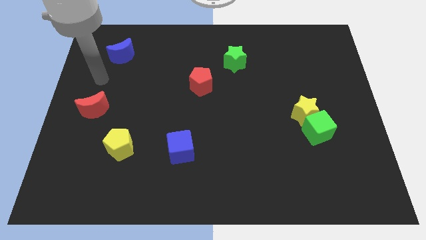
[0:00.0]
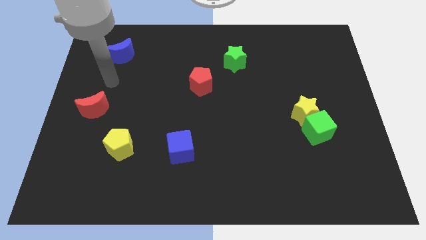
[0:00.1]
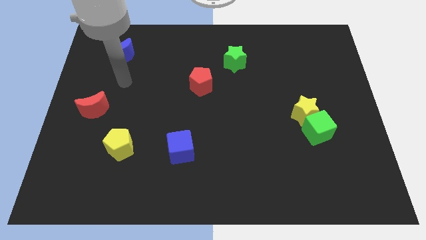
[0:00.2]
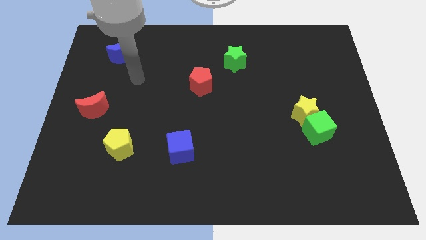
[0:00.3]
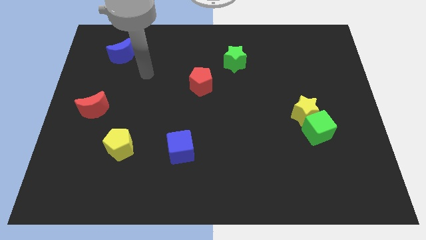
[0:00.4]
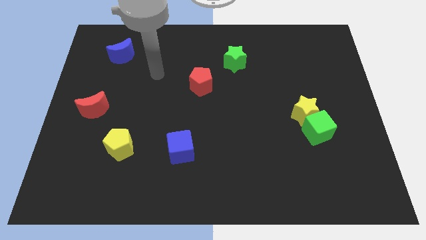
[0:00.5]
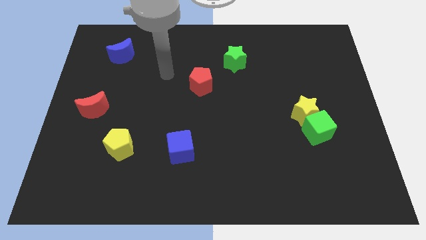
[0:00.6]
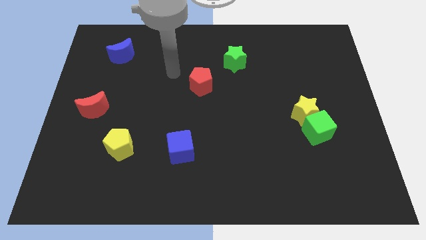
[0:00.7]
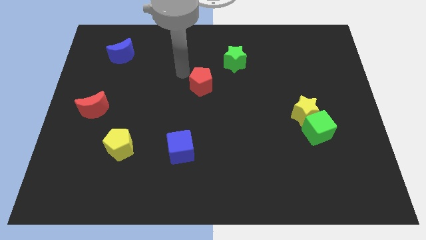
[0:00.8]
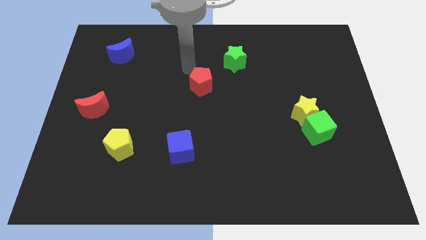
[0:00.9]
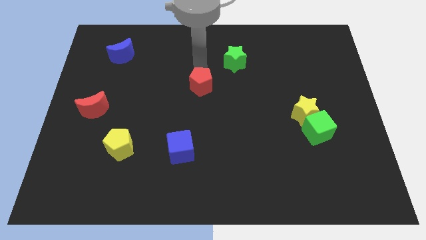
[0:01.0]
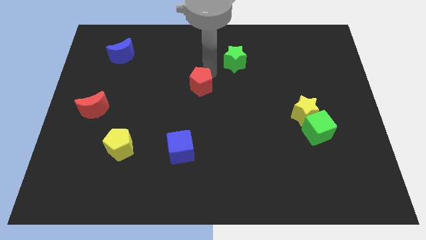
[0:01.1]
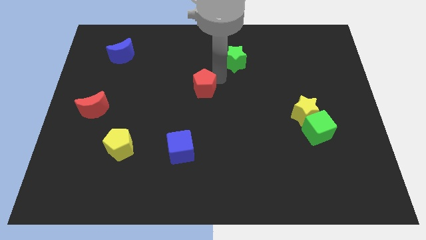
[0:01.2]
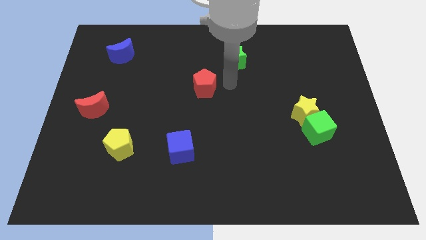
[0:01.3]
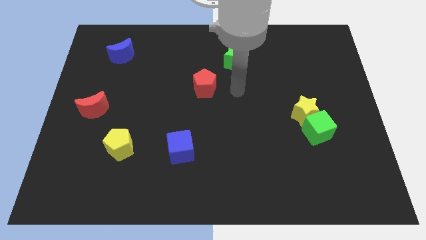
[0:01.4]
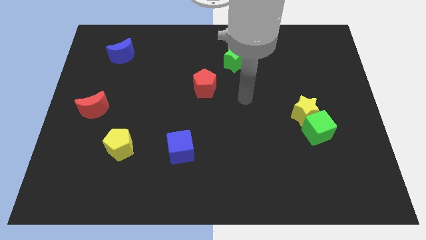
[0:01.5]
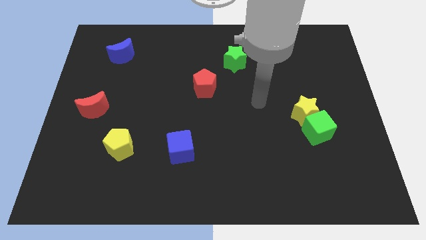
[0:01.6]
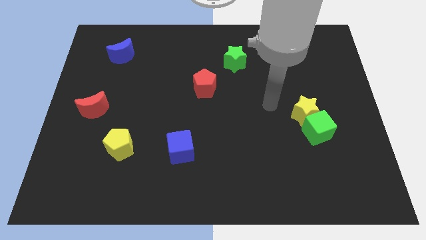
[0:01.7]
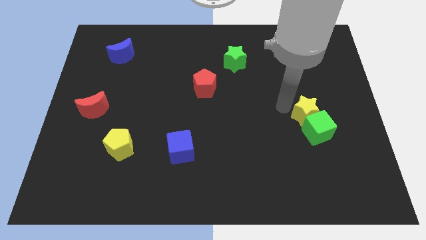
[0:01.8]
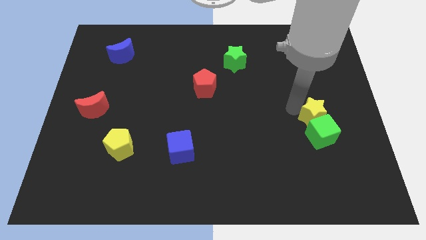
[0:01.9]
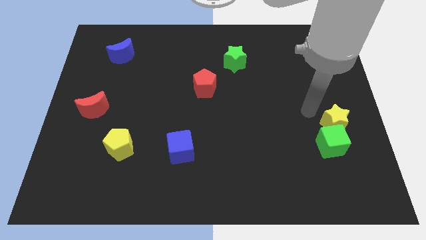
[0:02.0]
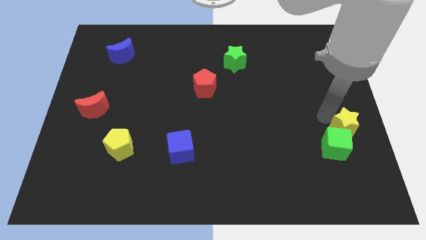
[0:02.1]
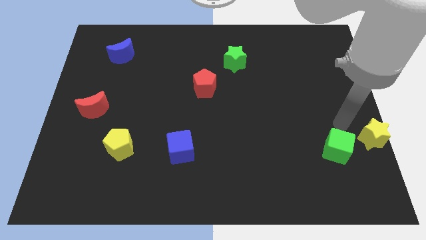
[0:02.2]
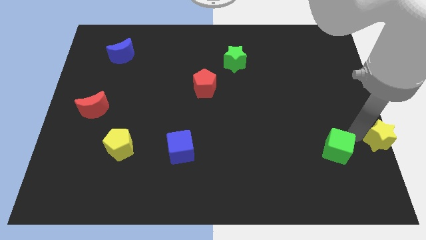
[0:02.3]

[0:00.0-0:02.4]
separate the green cube from the yellow star

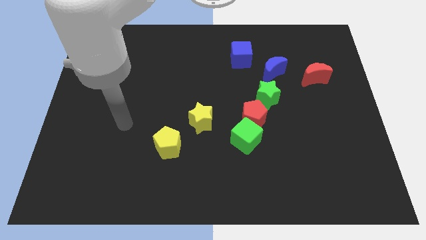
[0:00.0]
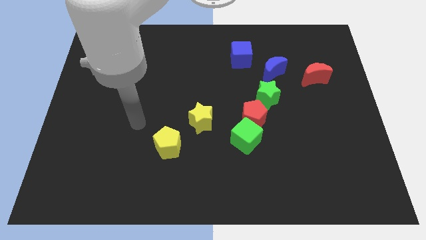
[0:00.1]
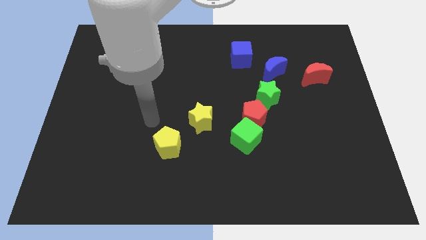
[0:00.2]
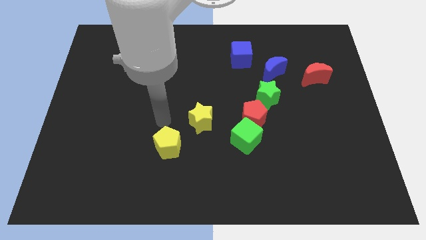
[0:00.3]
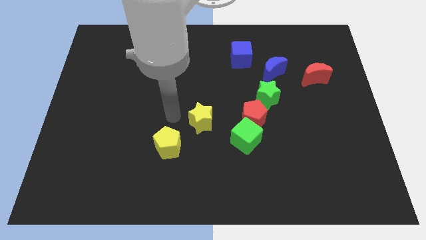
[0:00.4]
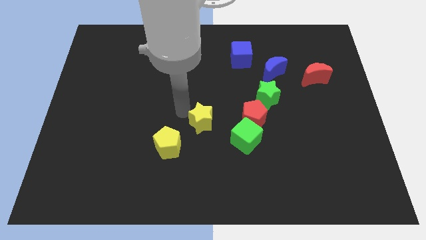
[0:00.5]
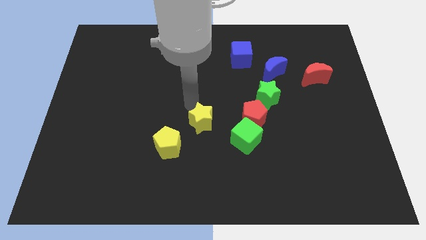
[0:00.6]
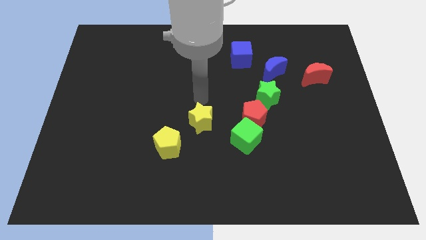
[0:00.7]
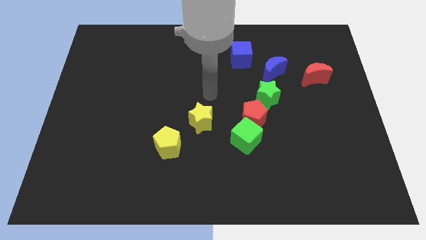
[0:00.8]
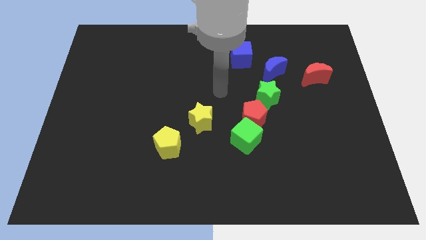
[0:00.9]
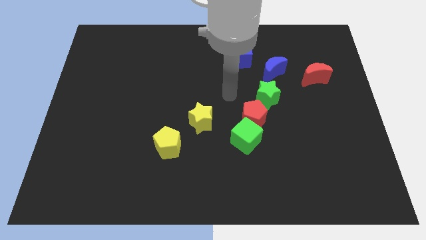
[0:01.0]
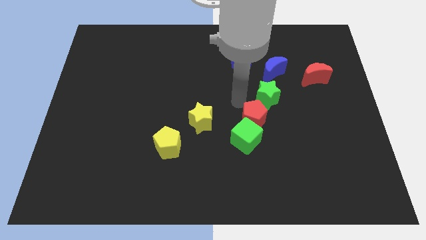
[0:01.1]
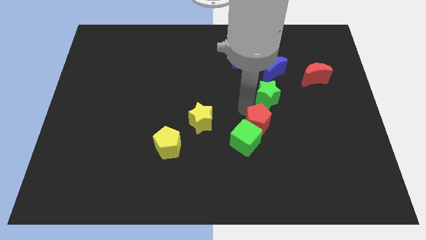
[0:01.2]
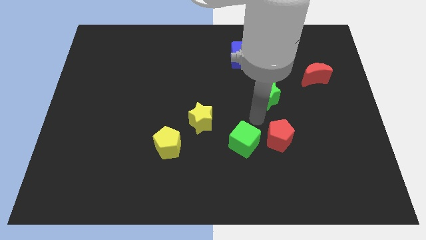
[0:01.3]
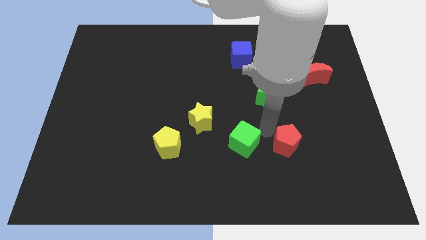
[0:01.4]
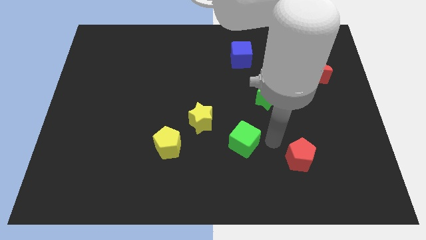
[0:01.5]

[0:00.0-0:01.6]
separate the green cube from the red pentagon

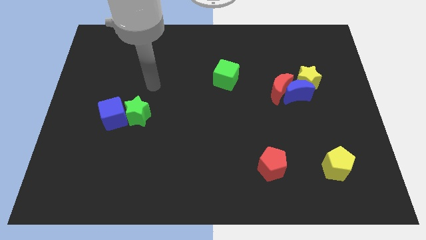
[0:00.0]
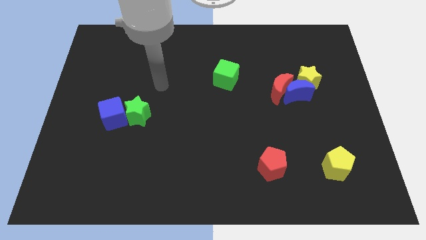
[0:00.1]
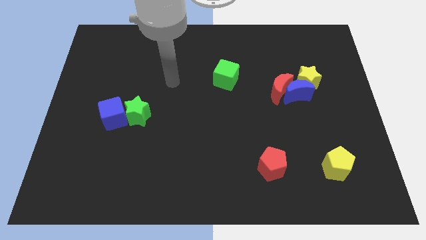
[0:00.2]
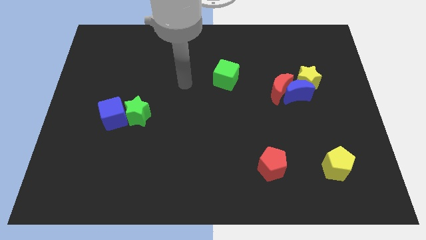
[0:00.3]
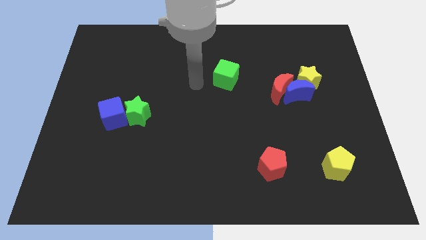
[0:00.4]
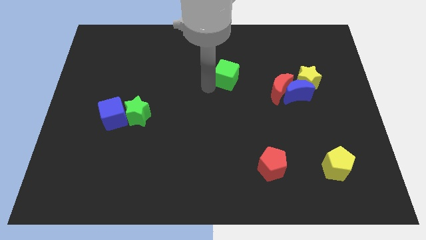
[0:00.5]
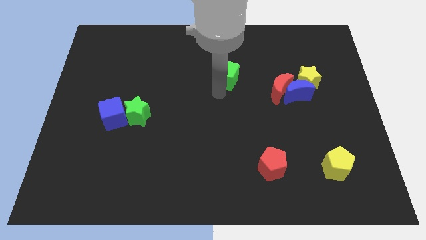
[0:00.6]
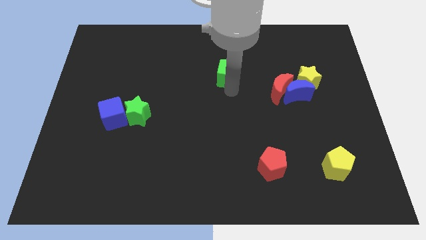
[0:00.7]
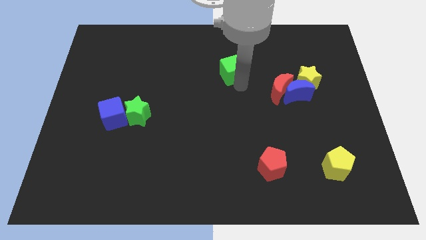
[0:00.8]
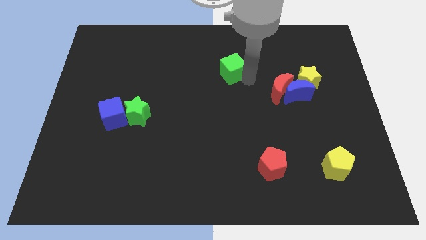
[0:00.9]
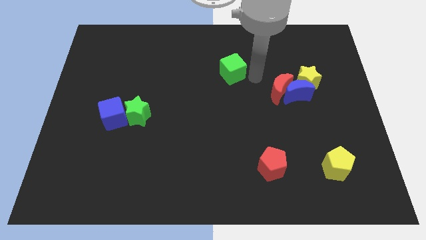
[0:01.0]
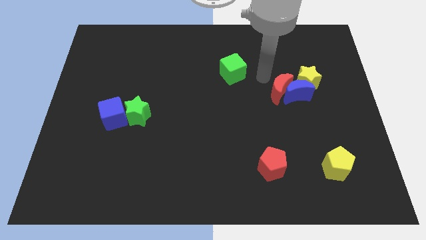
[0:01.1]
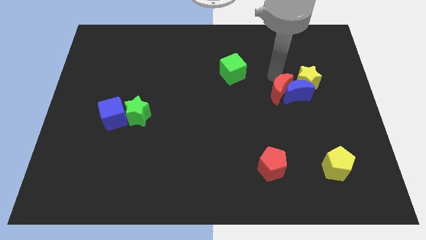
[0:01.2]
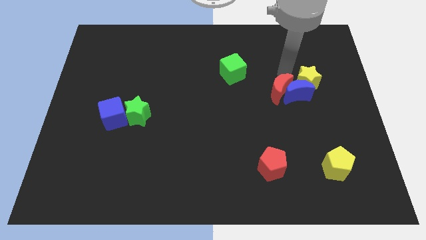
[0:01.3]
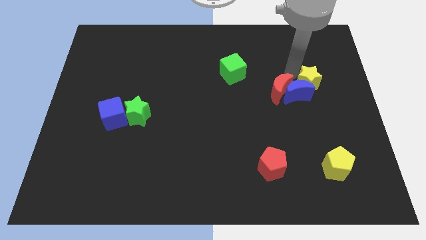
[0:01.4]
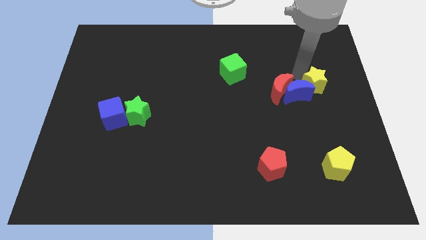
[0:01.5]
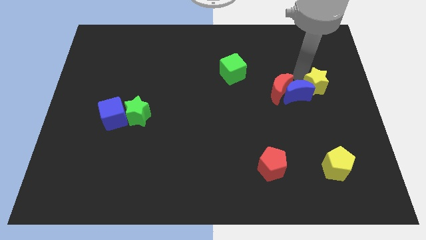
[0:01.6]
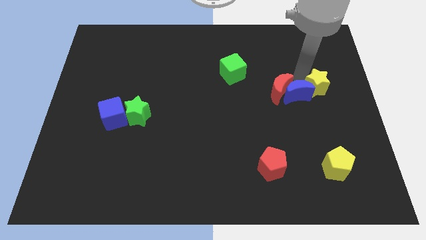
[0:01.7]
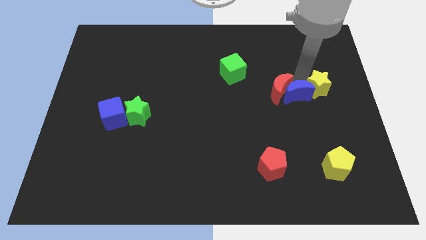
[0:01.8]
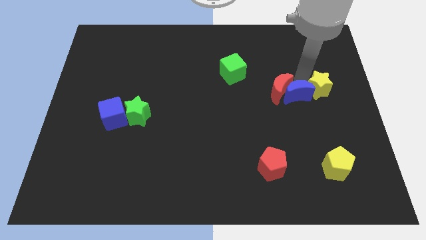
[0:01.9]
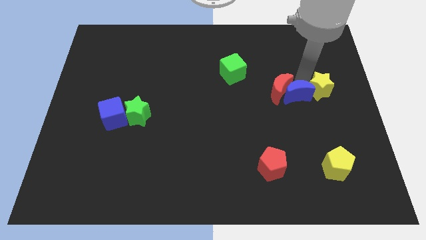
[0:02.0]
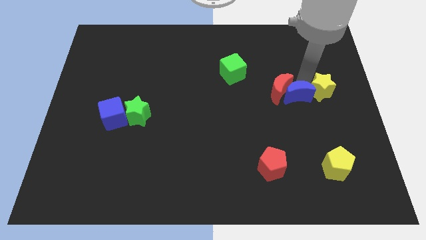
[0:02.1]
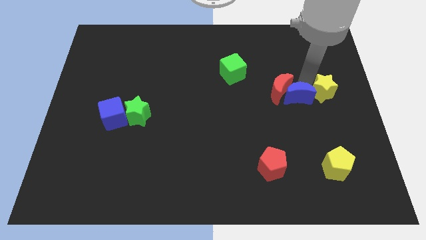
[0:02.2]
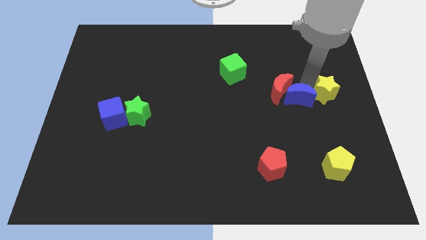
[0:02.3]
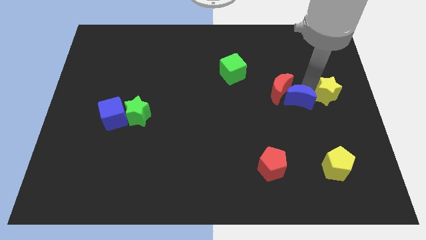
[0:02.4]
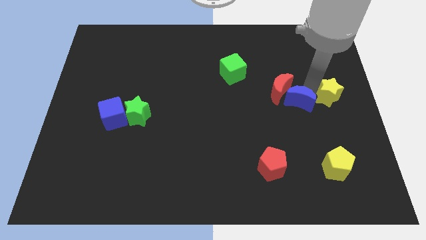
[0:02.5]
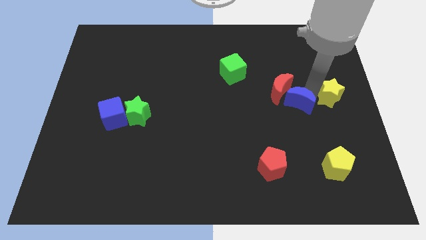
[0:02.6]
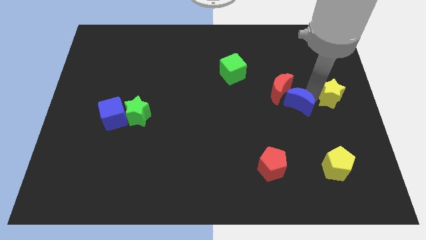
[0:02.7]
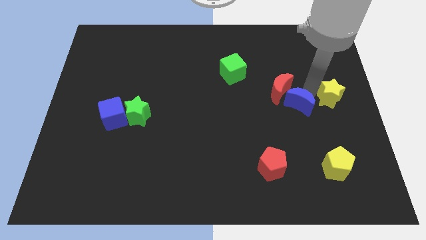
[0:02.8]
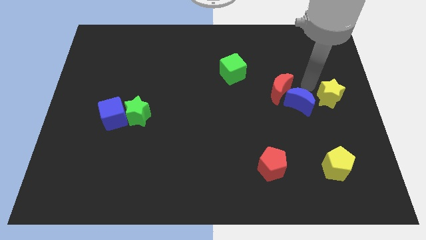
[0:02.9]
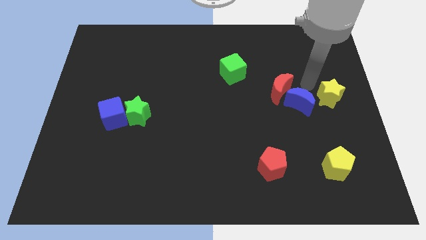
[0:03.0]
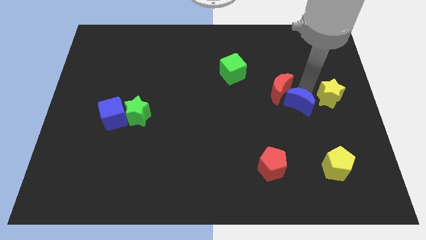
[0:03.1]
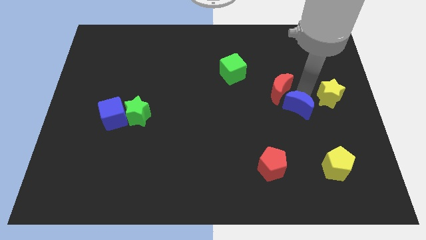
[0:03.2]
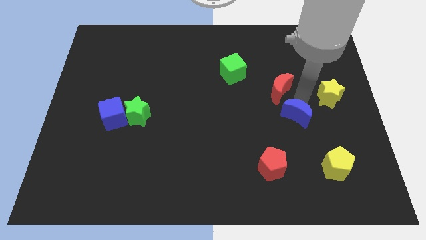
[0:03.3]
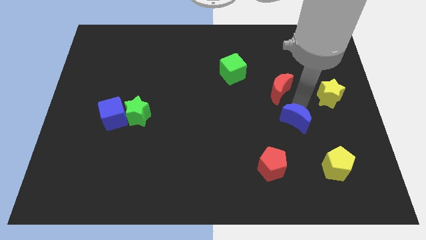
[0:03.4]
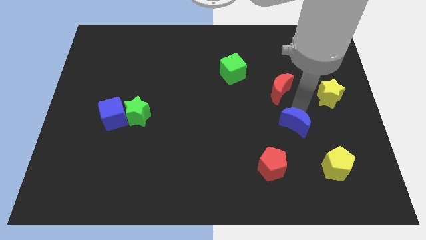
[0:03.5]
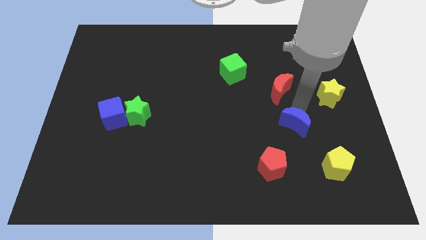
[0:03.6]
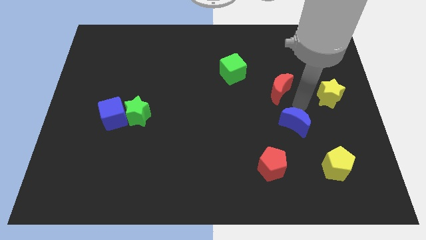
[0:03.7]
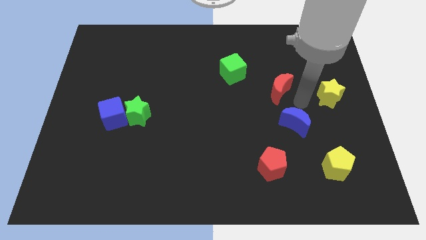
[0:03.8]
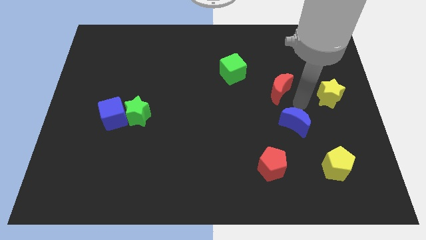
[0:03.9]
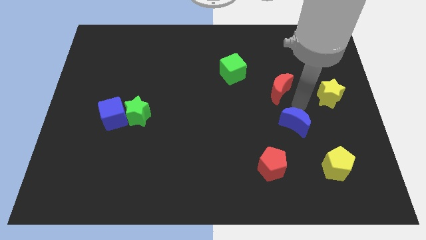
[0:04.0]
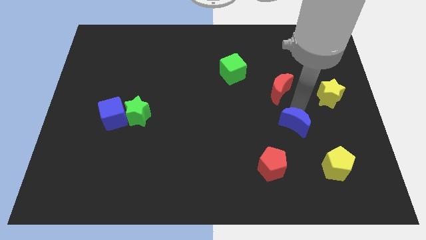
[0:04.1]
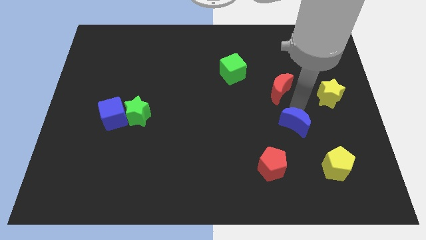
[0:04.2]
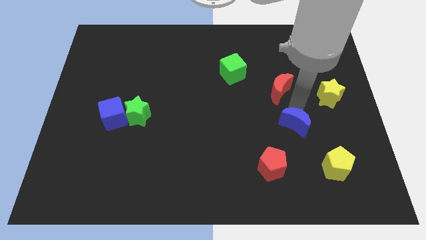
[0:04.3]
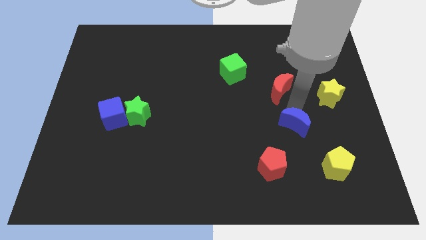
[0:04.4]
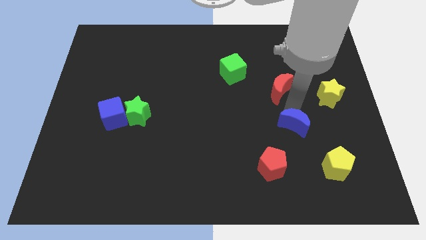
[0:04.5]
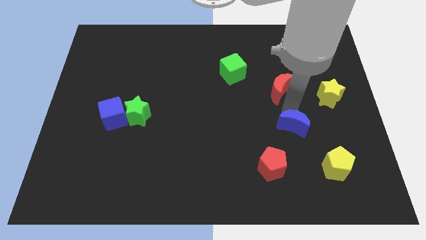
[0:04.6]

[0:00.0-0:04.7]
separate the blue moon from the red moon and yellow star

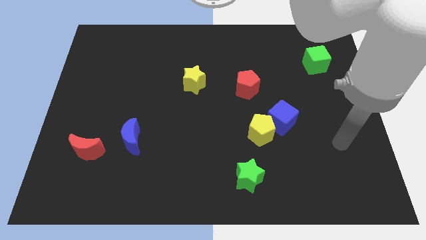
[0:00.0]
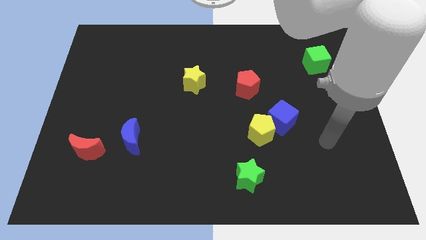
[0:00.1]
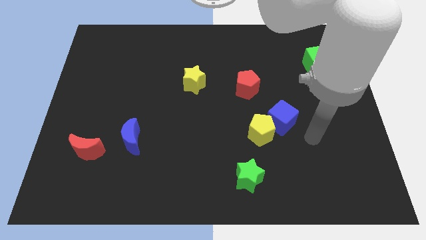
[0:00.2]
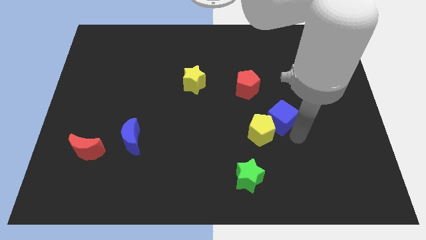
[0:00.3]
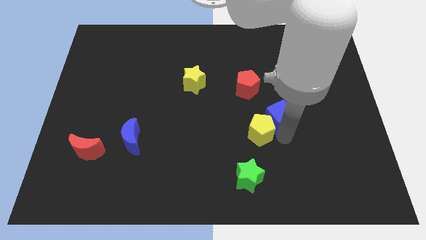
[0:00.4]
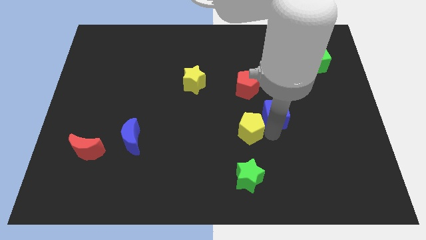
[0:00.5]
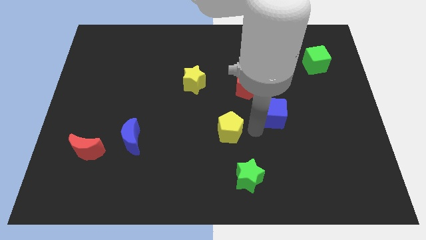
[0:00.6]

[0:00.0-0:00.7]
pull the blue cube apart from the yellow pentagon

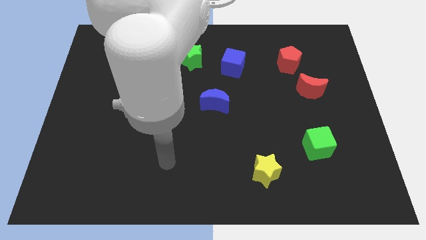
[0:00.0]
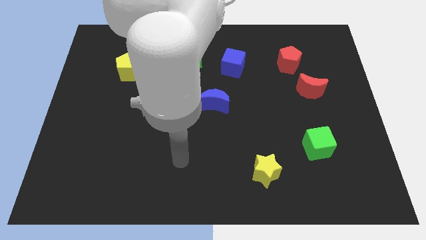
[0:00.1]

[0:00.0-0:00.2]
pull the red moon apart from the red pentagon
